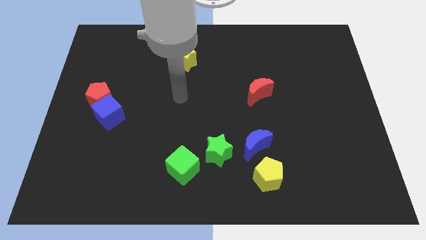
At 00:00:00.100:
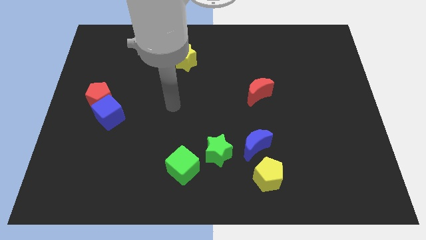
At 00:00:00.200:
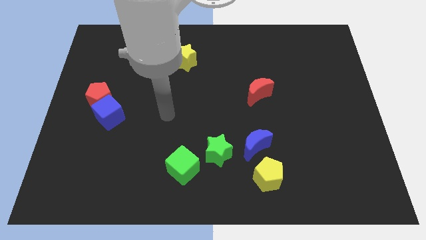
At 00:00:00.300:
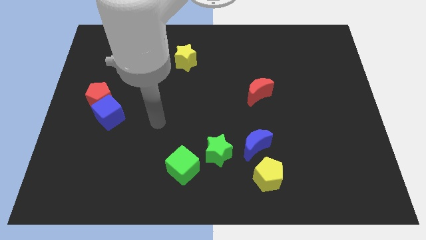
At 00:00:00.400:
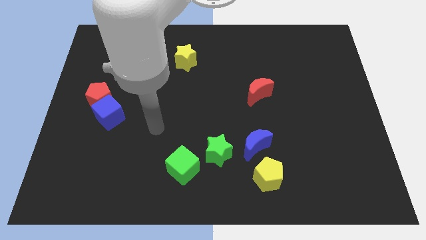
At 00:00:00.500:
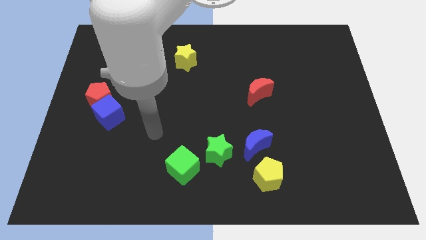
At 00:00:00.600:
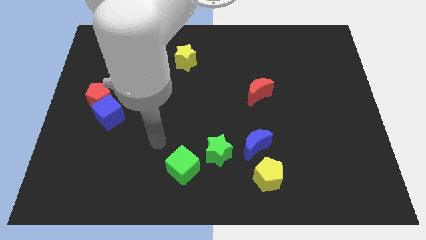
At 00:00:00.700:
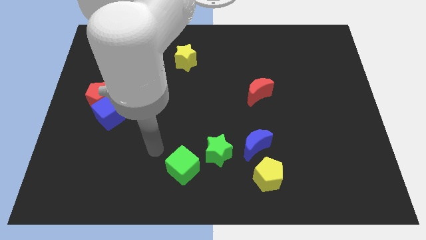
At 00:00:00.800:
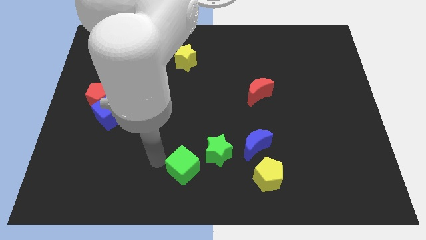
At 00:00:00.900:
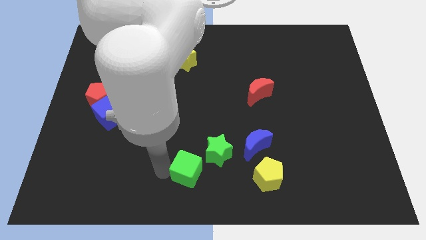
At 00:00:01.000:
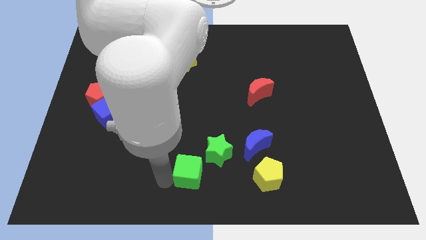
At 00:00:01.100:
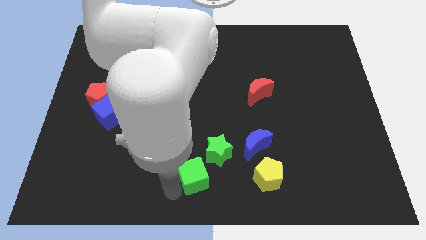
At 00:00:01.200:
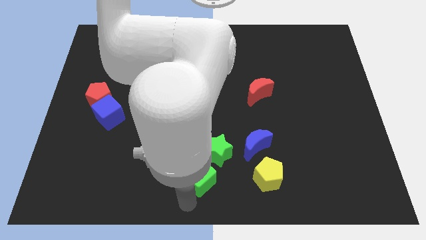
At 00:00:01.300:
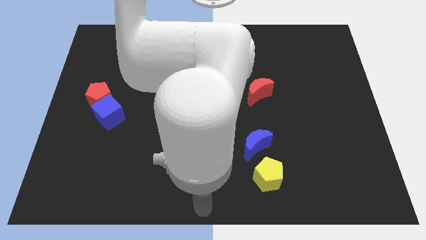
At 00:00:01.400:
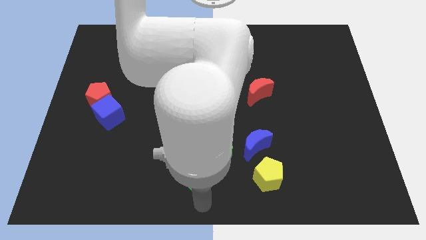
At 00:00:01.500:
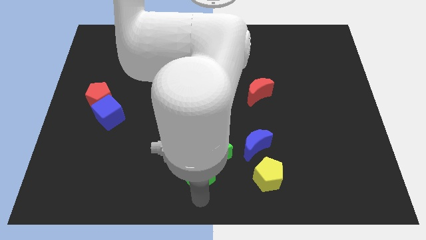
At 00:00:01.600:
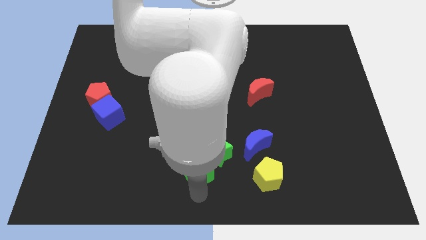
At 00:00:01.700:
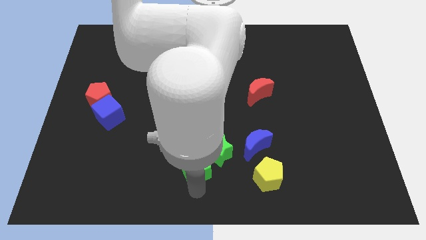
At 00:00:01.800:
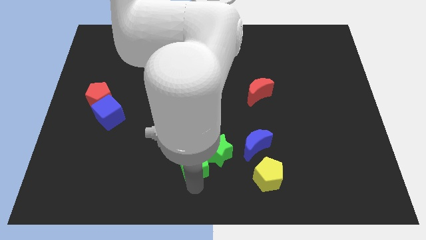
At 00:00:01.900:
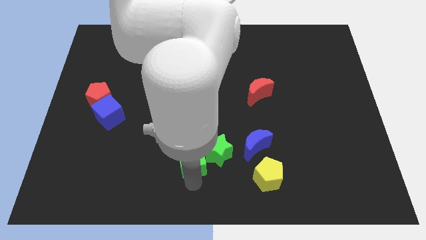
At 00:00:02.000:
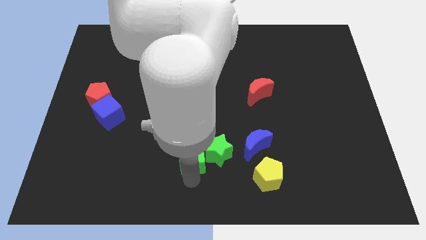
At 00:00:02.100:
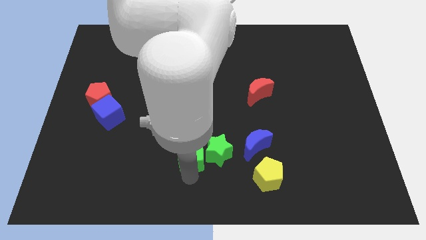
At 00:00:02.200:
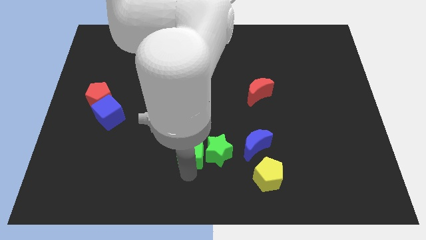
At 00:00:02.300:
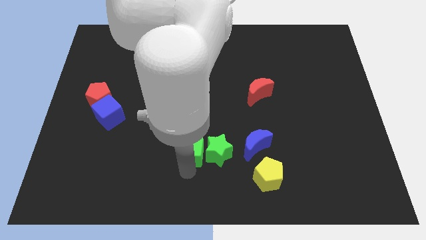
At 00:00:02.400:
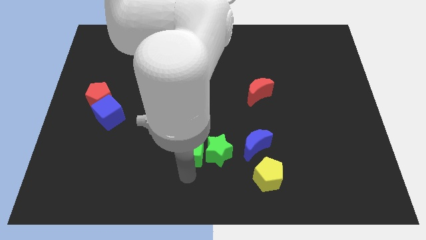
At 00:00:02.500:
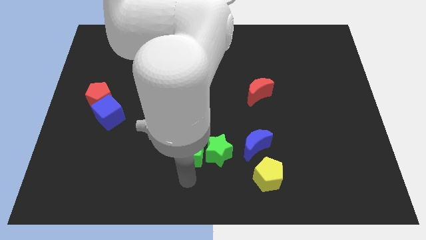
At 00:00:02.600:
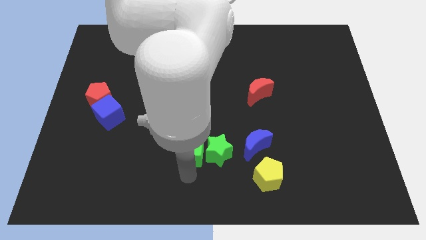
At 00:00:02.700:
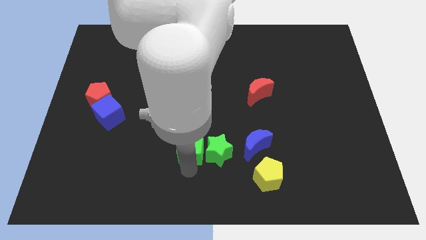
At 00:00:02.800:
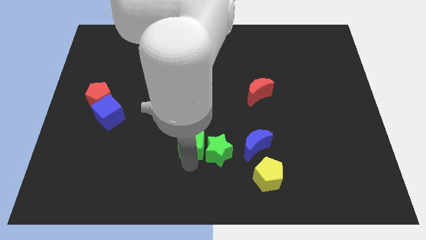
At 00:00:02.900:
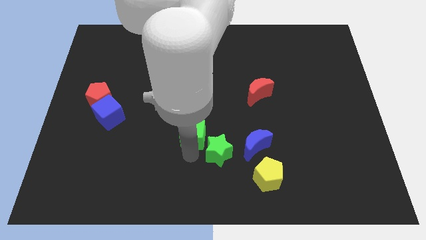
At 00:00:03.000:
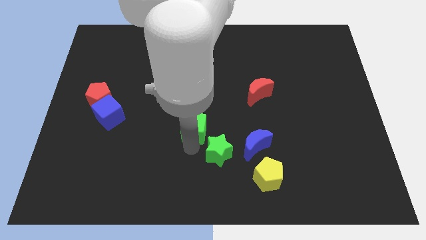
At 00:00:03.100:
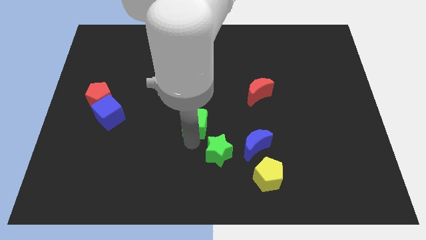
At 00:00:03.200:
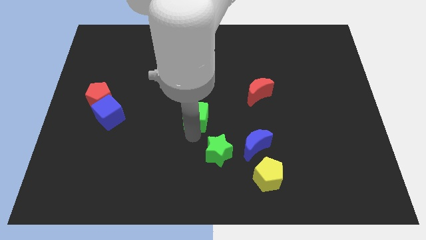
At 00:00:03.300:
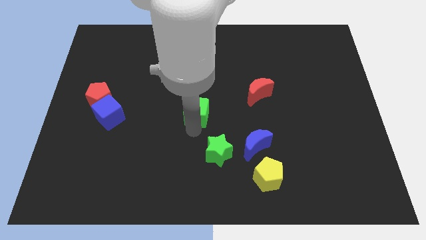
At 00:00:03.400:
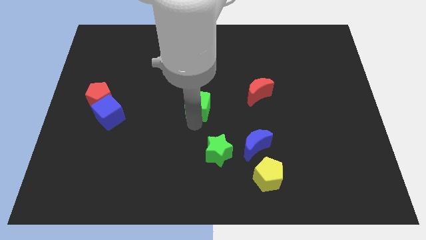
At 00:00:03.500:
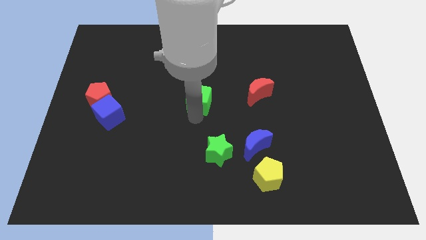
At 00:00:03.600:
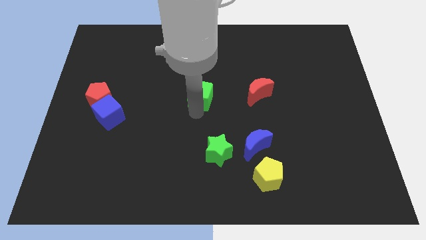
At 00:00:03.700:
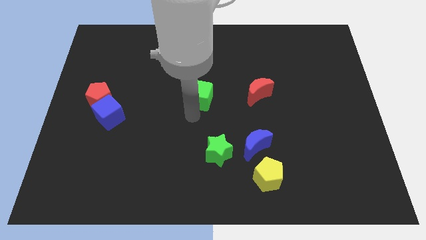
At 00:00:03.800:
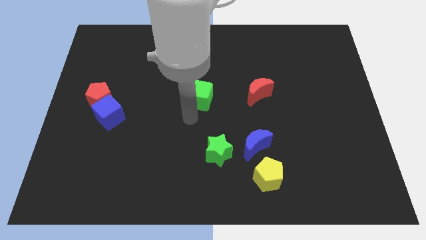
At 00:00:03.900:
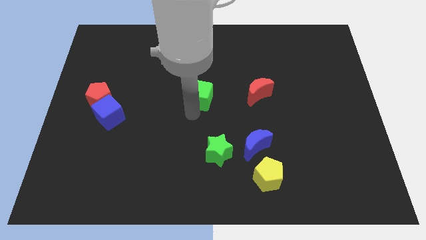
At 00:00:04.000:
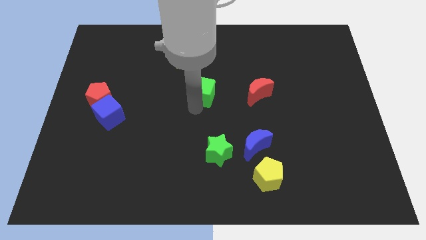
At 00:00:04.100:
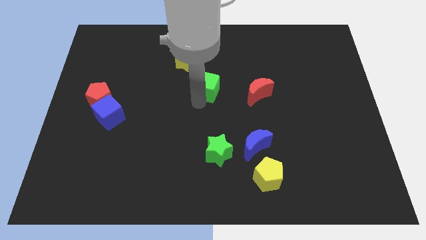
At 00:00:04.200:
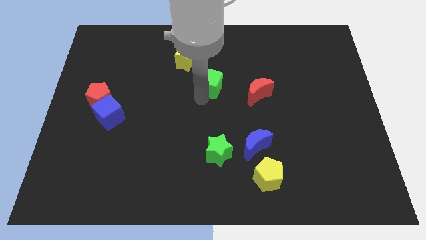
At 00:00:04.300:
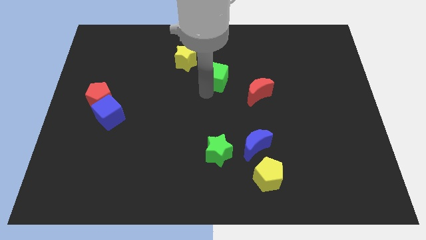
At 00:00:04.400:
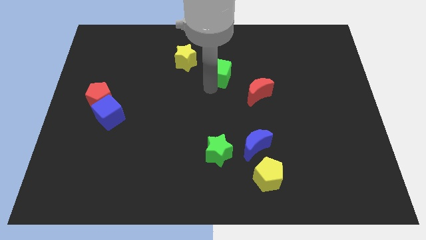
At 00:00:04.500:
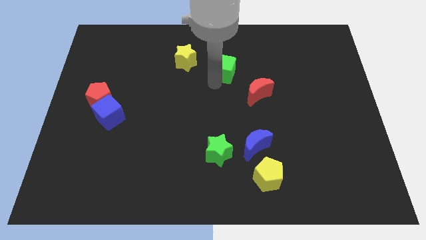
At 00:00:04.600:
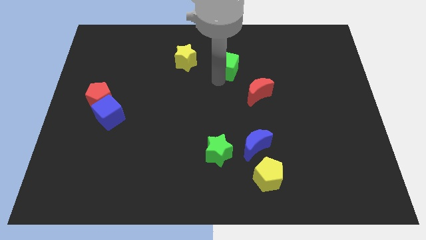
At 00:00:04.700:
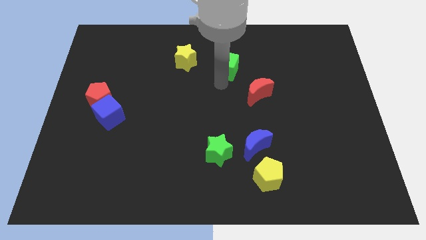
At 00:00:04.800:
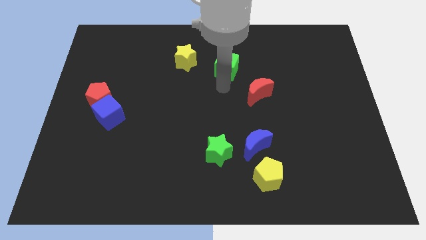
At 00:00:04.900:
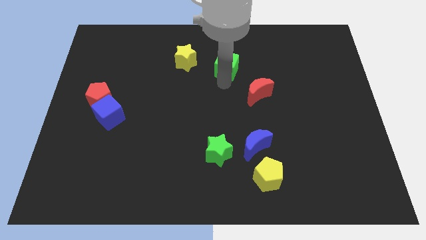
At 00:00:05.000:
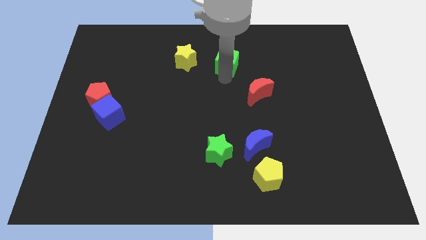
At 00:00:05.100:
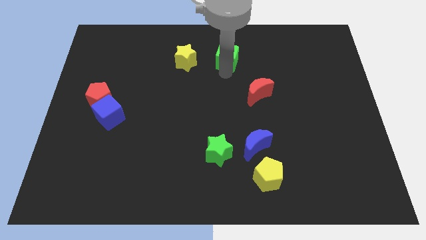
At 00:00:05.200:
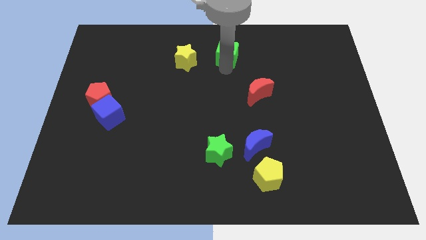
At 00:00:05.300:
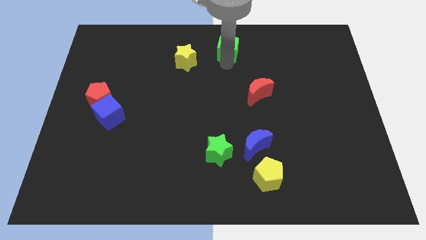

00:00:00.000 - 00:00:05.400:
move the green cube to the top side

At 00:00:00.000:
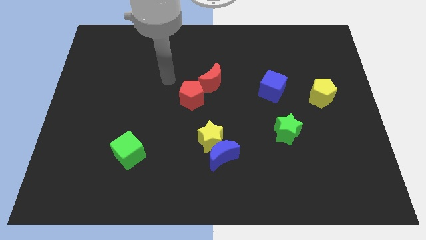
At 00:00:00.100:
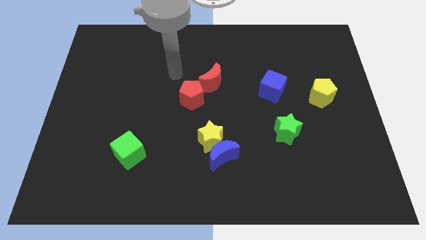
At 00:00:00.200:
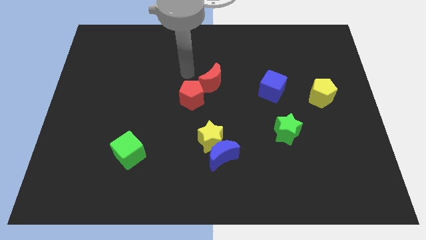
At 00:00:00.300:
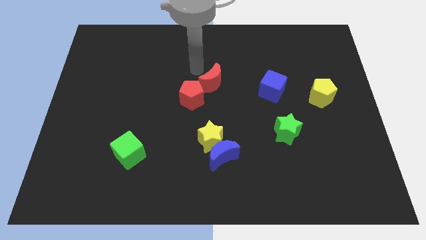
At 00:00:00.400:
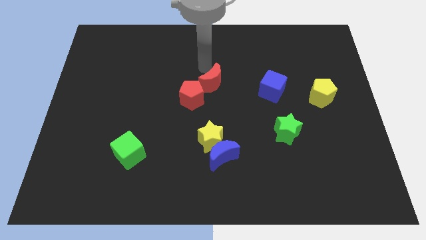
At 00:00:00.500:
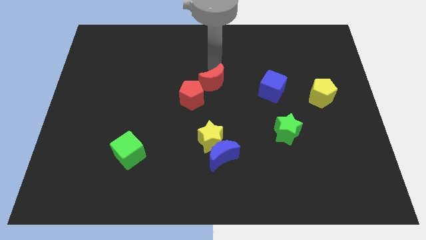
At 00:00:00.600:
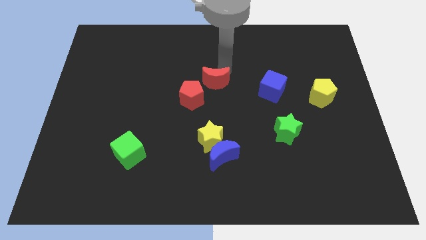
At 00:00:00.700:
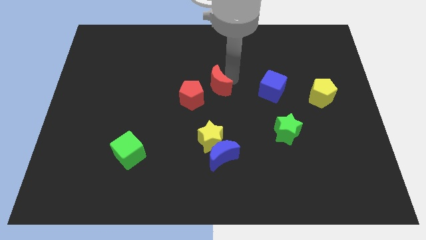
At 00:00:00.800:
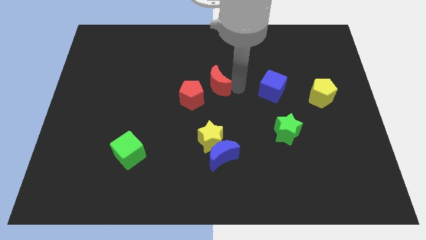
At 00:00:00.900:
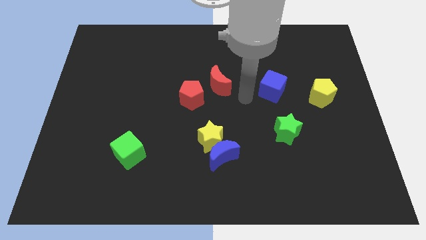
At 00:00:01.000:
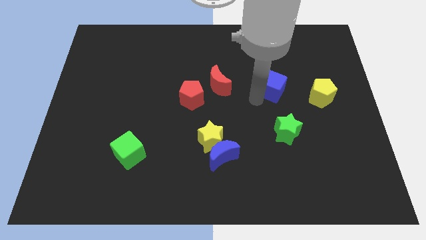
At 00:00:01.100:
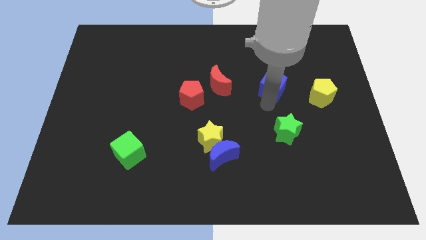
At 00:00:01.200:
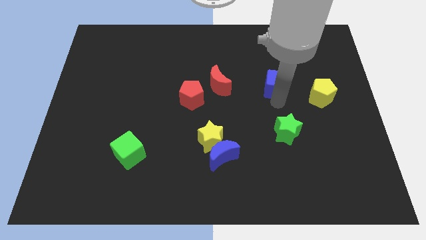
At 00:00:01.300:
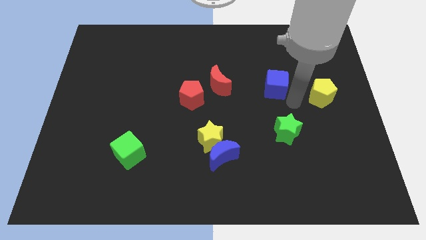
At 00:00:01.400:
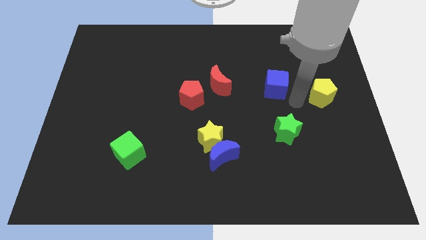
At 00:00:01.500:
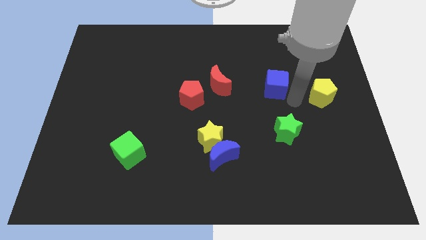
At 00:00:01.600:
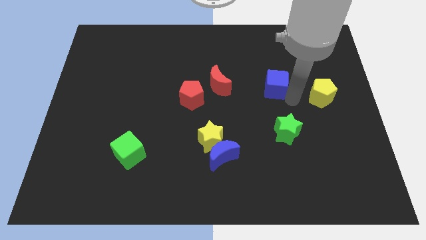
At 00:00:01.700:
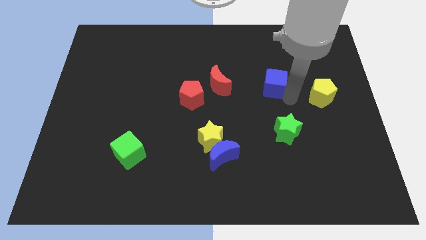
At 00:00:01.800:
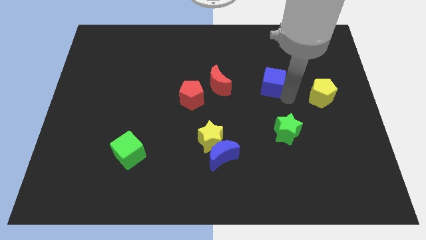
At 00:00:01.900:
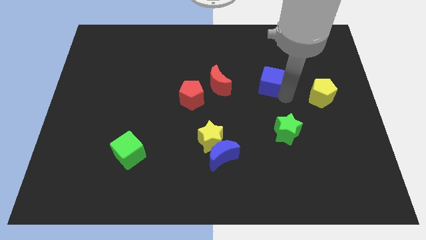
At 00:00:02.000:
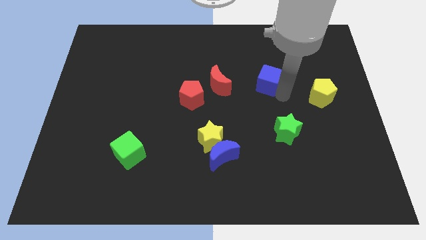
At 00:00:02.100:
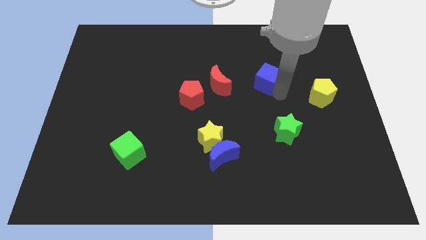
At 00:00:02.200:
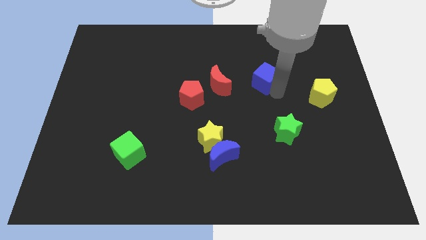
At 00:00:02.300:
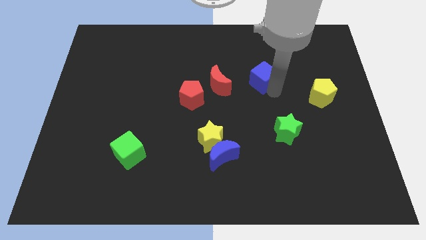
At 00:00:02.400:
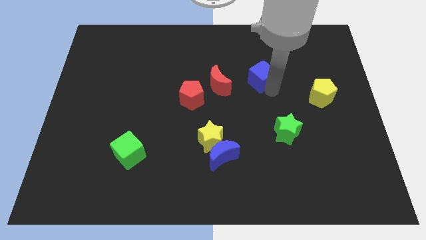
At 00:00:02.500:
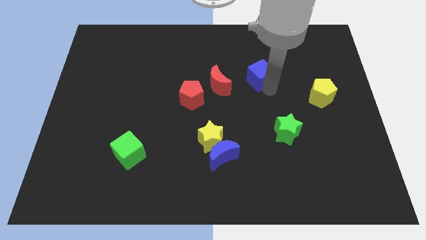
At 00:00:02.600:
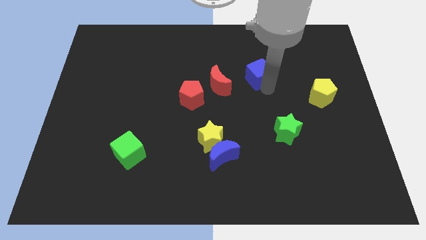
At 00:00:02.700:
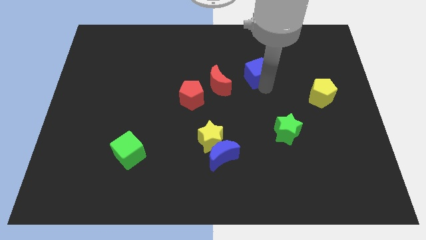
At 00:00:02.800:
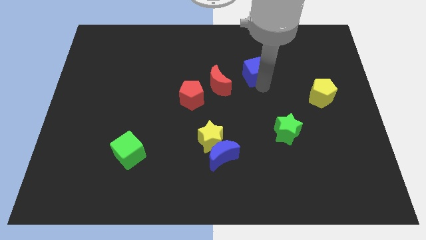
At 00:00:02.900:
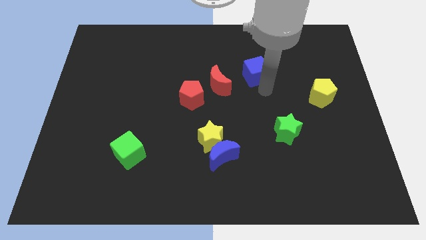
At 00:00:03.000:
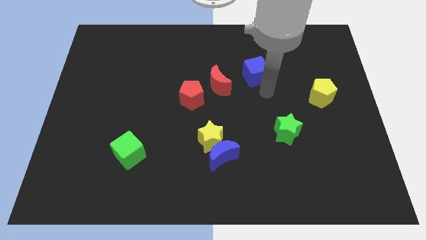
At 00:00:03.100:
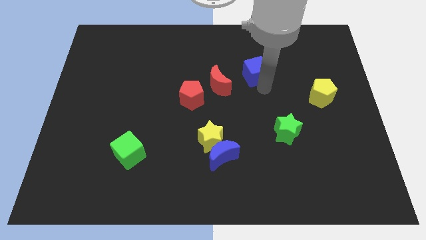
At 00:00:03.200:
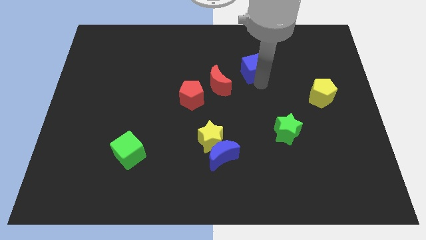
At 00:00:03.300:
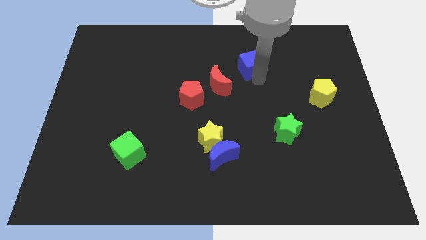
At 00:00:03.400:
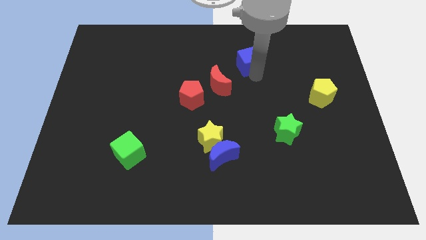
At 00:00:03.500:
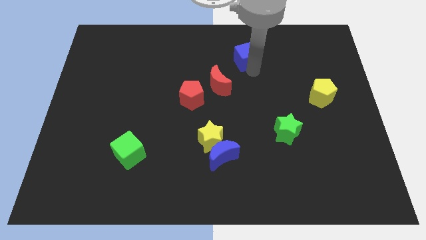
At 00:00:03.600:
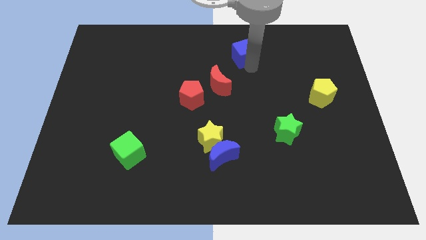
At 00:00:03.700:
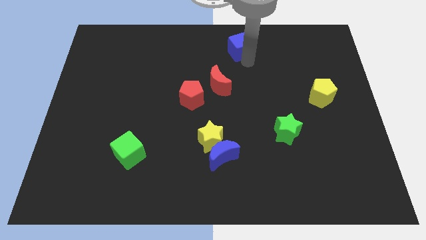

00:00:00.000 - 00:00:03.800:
push the blue cube to the top side
